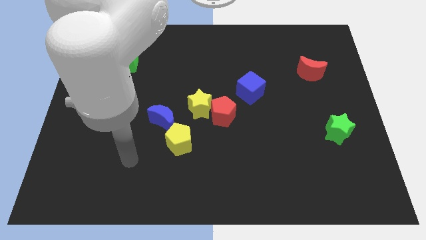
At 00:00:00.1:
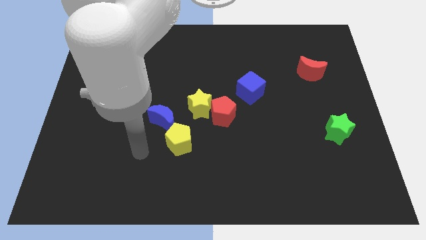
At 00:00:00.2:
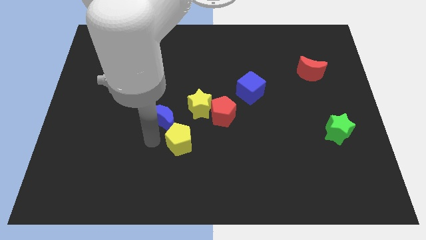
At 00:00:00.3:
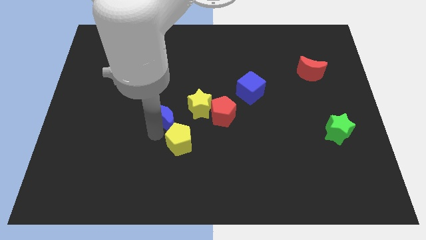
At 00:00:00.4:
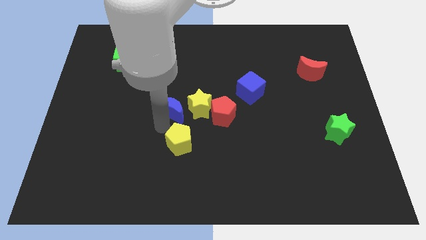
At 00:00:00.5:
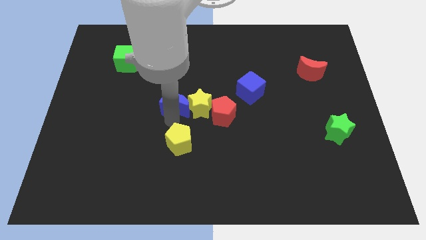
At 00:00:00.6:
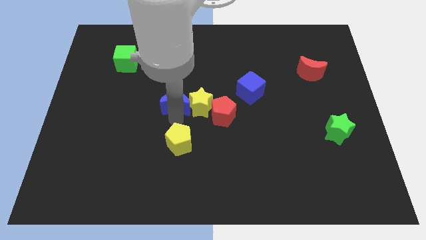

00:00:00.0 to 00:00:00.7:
pull the yellow pentagon apart from the blue moon

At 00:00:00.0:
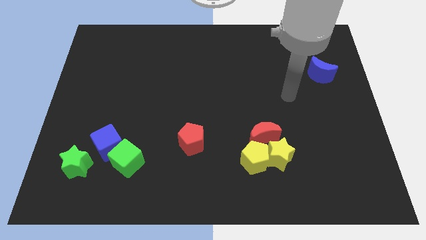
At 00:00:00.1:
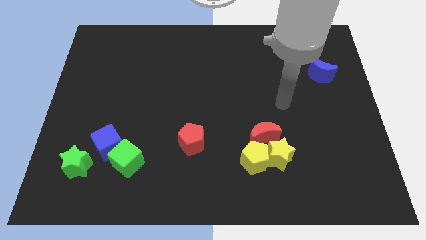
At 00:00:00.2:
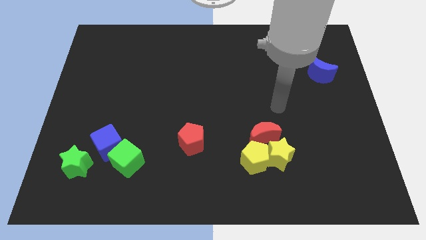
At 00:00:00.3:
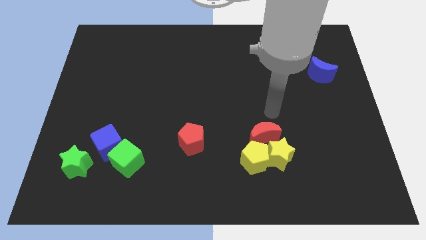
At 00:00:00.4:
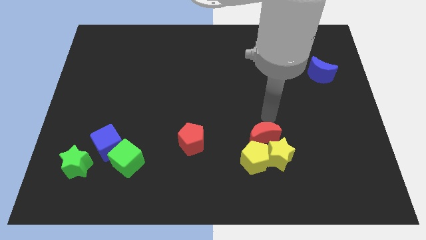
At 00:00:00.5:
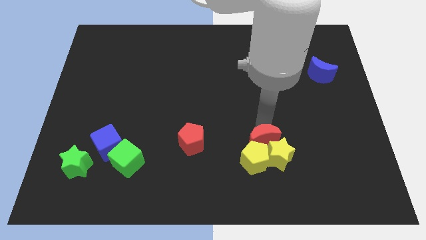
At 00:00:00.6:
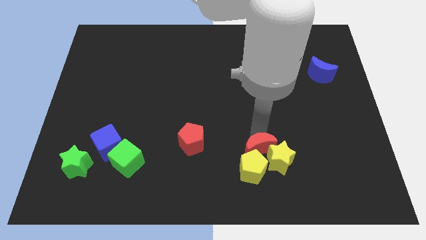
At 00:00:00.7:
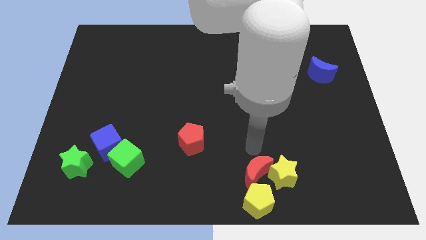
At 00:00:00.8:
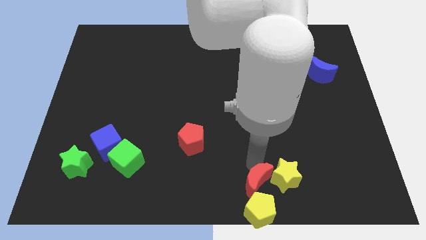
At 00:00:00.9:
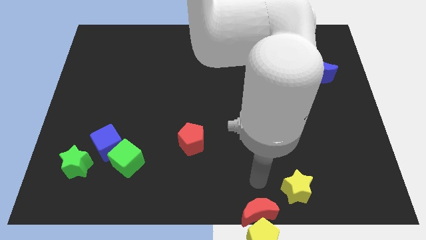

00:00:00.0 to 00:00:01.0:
pull the yellow star apart from the yellow pentagon and red moon

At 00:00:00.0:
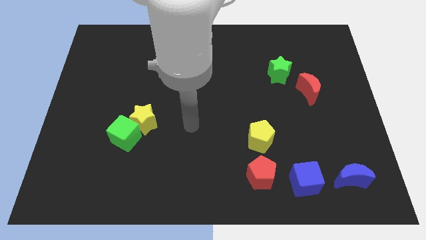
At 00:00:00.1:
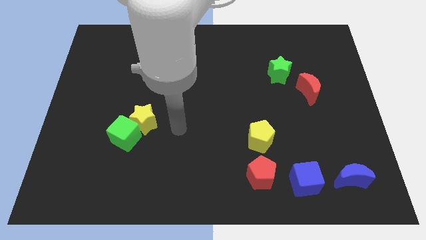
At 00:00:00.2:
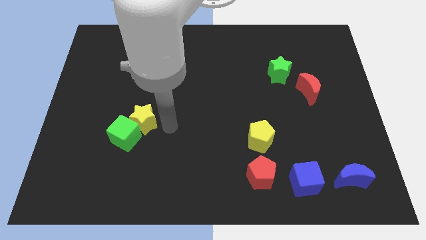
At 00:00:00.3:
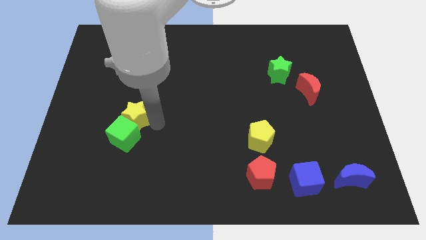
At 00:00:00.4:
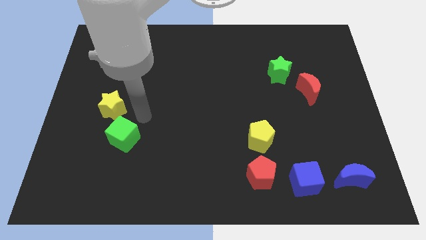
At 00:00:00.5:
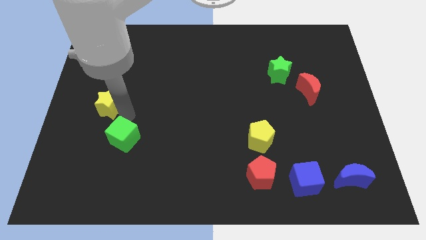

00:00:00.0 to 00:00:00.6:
move the green cube away from the yellow star

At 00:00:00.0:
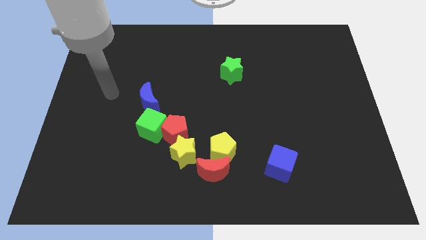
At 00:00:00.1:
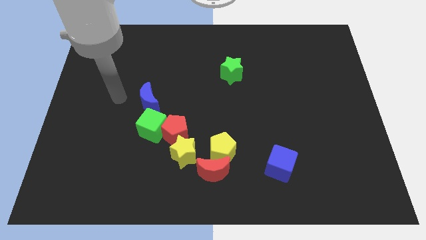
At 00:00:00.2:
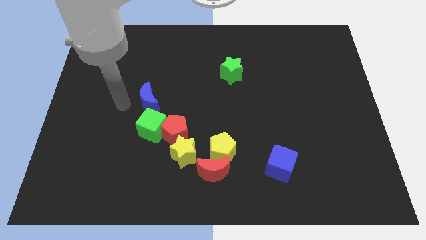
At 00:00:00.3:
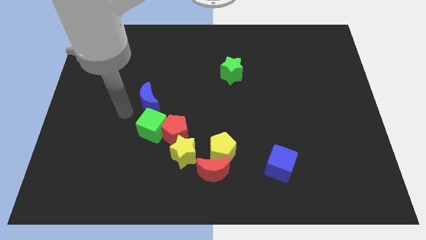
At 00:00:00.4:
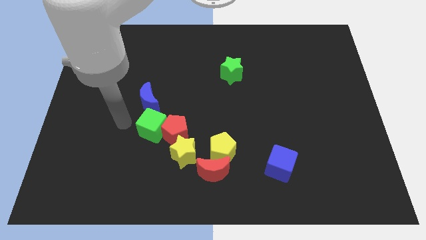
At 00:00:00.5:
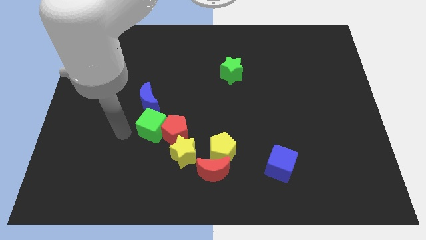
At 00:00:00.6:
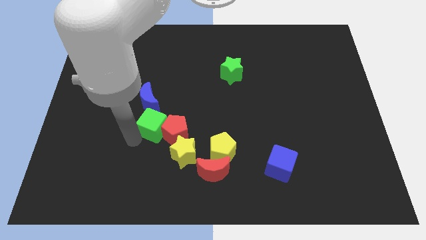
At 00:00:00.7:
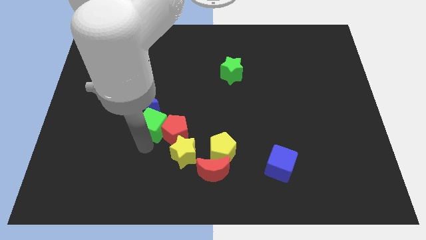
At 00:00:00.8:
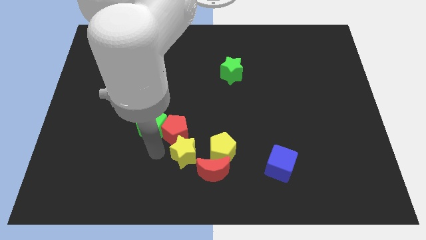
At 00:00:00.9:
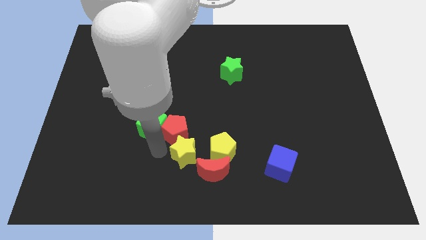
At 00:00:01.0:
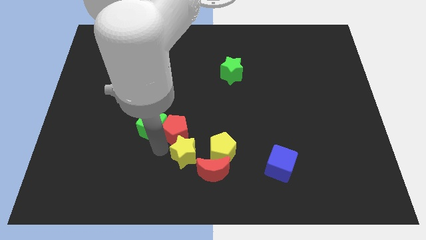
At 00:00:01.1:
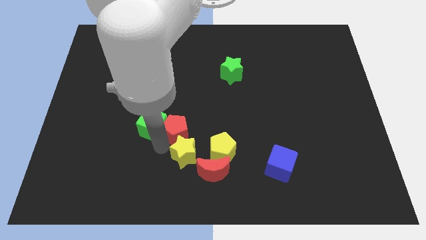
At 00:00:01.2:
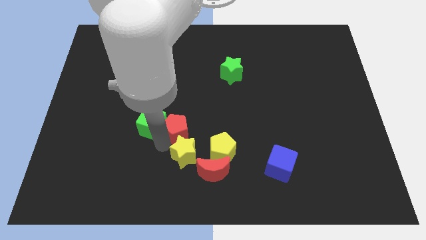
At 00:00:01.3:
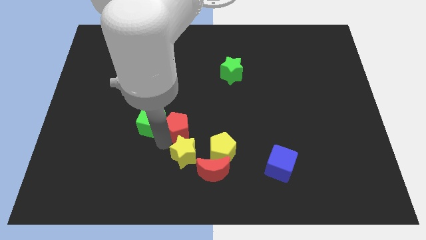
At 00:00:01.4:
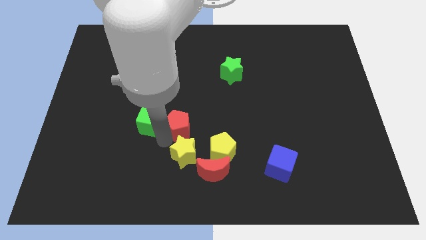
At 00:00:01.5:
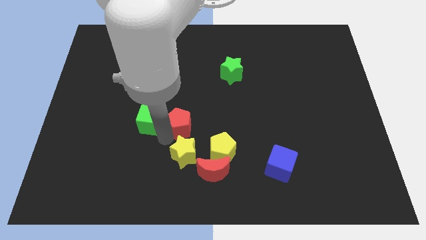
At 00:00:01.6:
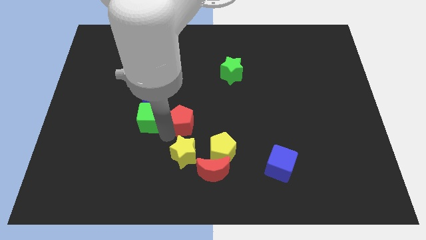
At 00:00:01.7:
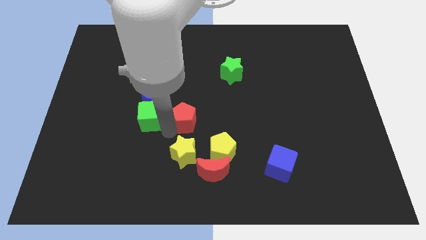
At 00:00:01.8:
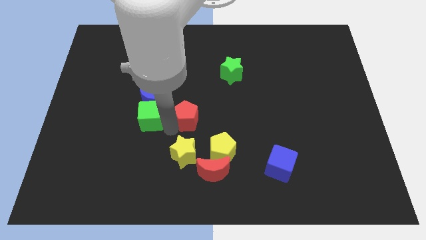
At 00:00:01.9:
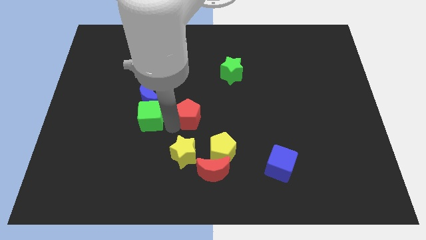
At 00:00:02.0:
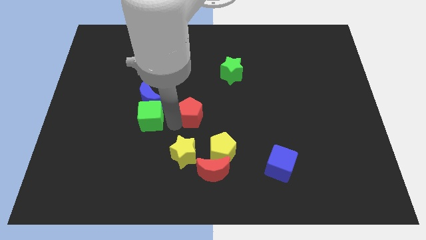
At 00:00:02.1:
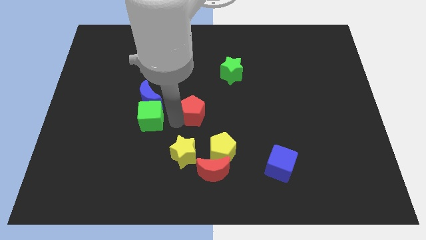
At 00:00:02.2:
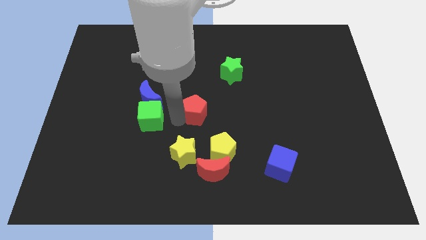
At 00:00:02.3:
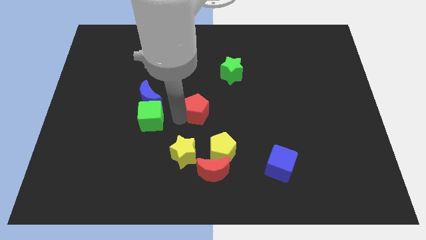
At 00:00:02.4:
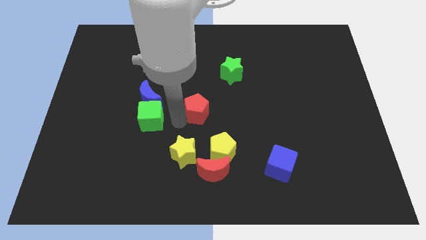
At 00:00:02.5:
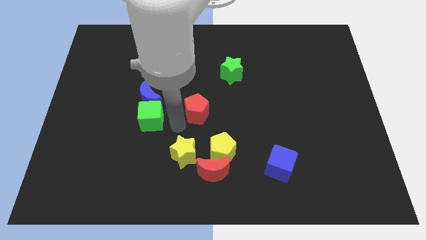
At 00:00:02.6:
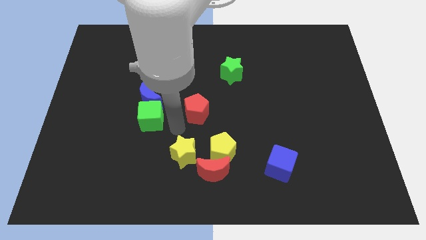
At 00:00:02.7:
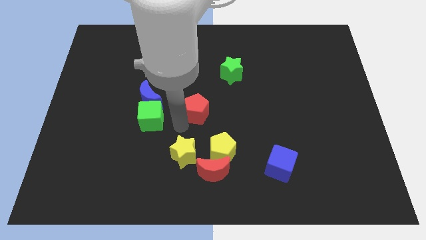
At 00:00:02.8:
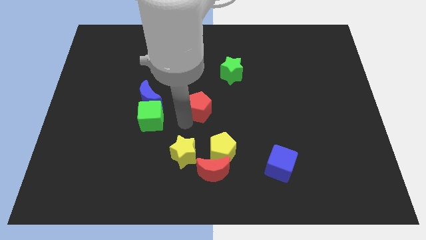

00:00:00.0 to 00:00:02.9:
pull the red pentagon apart from the green cube and yellow star

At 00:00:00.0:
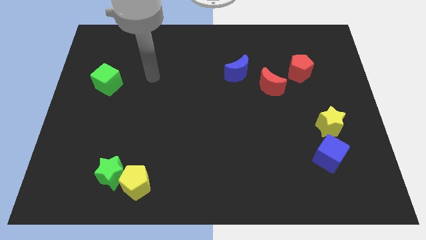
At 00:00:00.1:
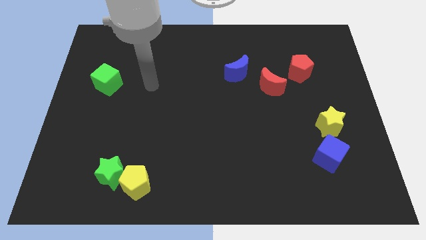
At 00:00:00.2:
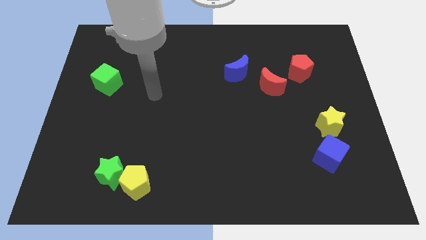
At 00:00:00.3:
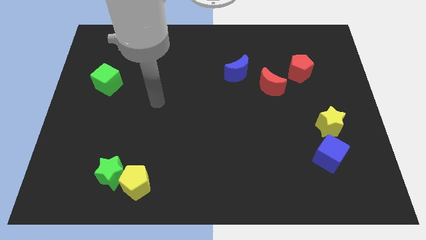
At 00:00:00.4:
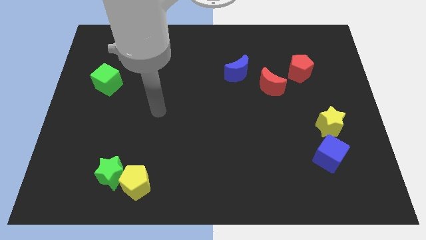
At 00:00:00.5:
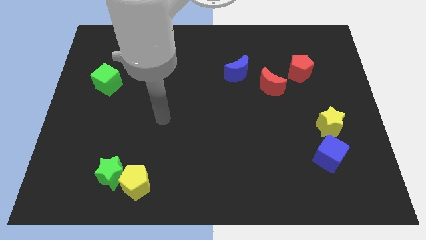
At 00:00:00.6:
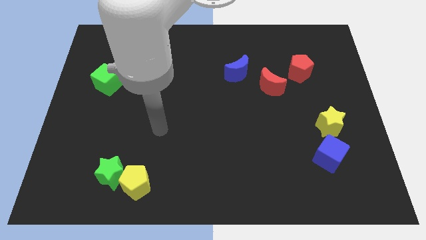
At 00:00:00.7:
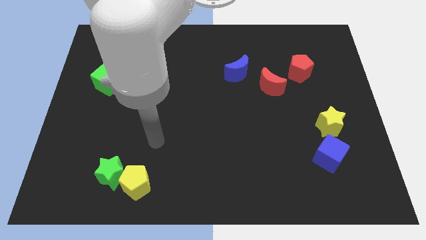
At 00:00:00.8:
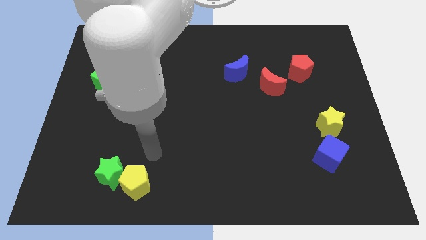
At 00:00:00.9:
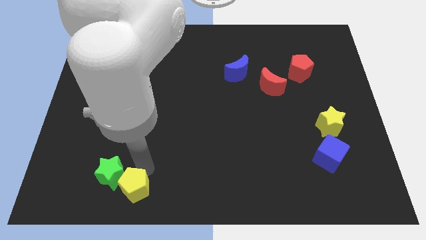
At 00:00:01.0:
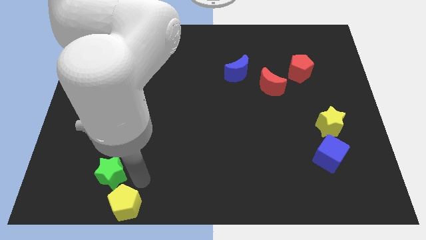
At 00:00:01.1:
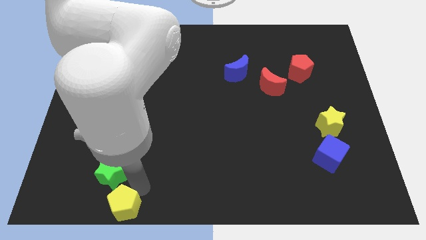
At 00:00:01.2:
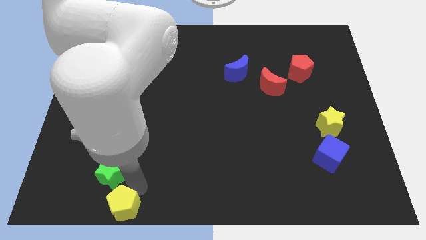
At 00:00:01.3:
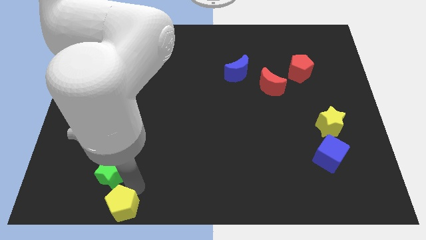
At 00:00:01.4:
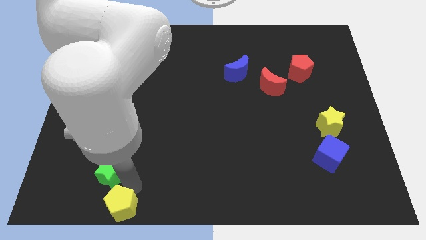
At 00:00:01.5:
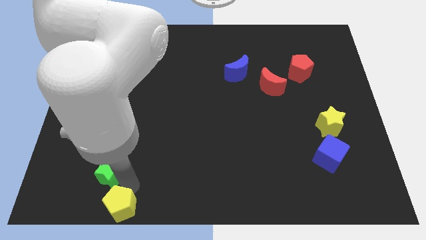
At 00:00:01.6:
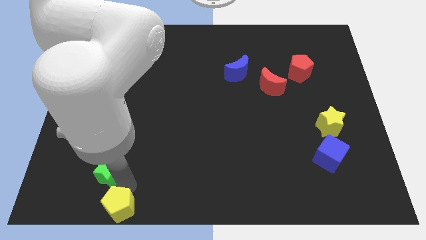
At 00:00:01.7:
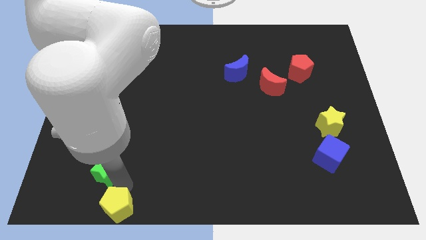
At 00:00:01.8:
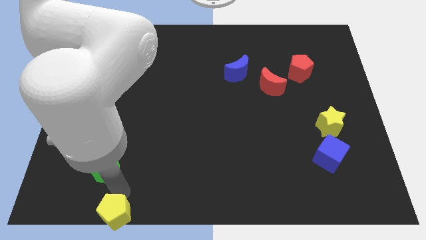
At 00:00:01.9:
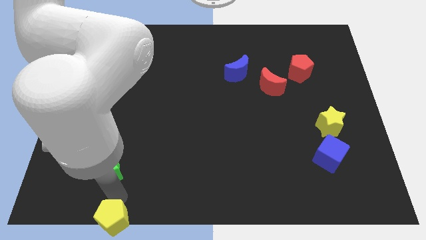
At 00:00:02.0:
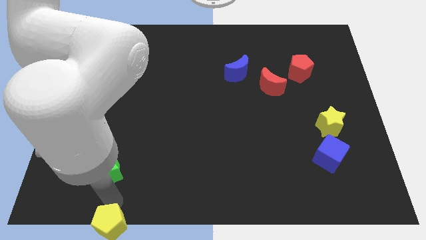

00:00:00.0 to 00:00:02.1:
move the green star away from the yellow pentagon

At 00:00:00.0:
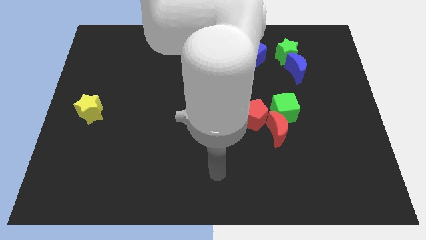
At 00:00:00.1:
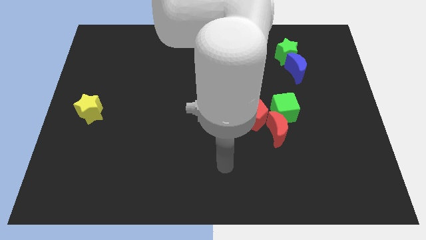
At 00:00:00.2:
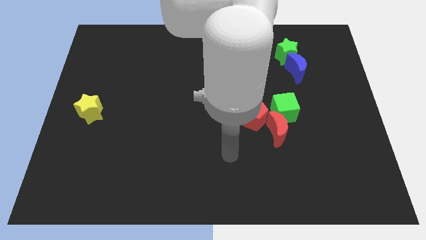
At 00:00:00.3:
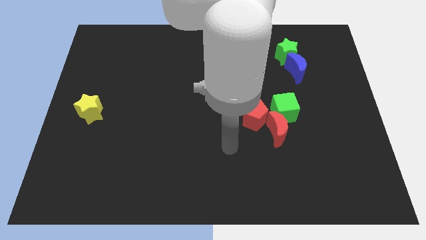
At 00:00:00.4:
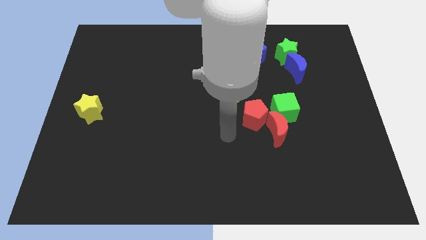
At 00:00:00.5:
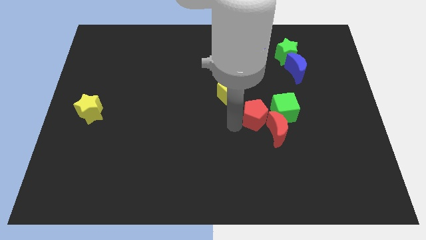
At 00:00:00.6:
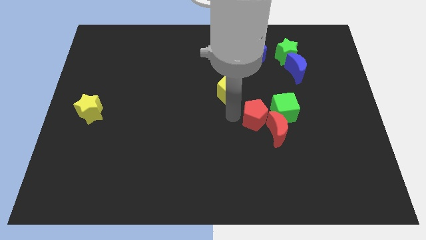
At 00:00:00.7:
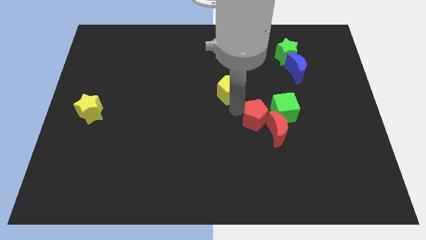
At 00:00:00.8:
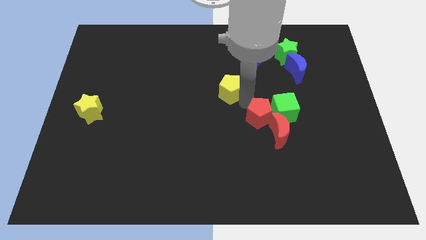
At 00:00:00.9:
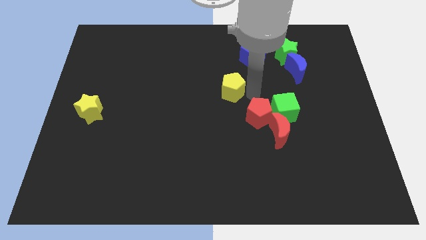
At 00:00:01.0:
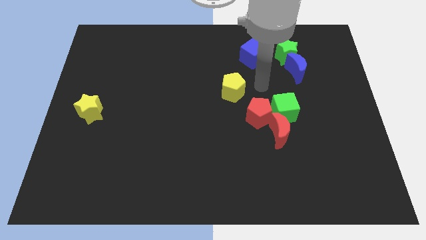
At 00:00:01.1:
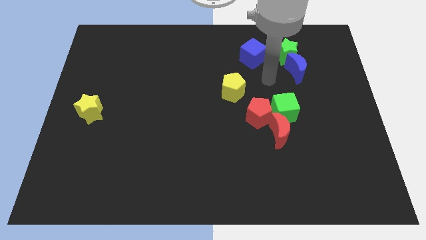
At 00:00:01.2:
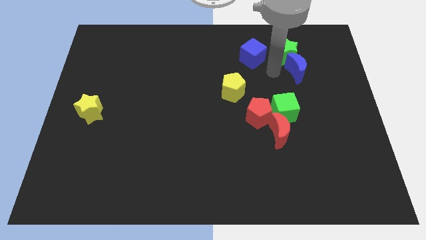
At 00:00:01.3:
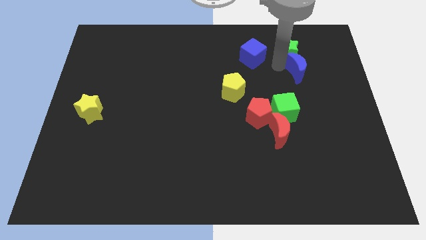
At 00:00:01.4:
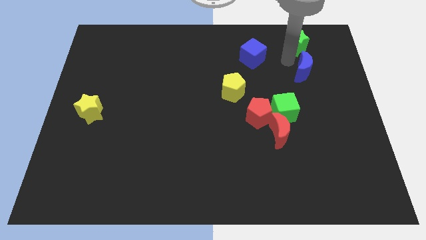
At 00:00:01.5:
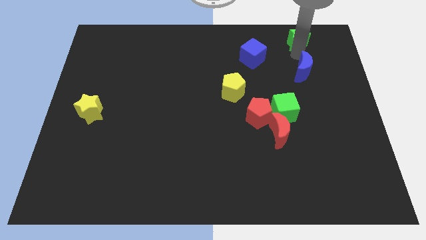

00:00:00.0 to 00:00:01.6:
separate the blue moon from the green star

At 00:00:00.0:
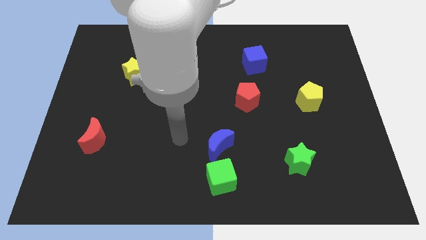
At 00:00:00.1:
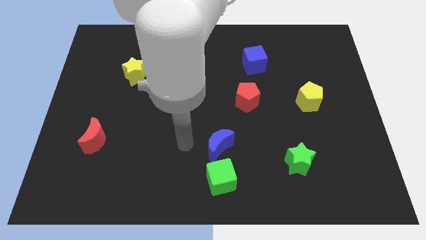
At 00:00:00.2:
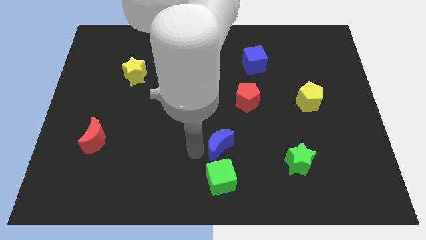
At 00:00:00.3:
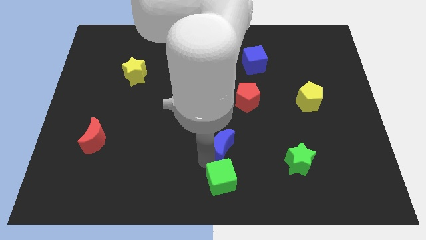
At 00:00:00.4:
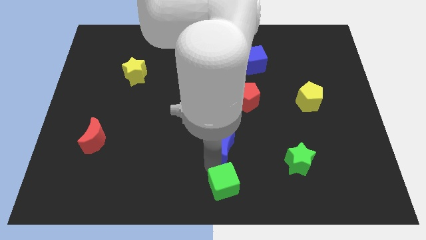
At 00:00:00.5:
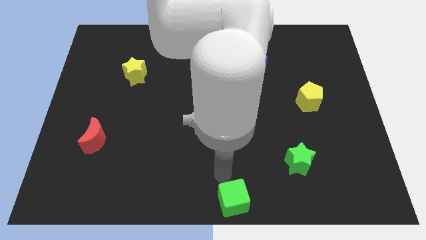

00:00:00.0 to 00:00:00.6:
move the blue moon away from the green cube
